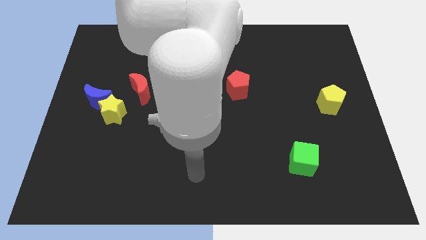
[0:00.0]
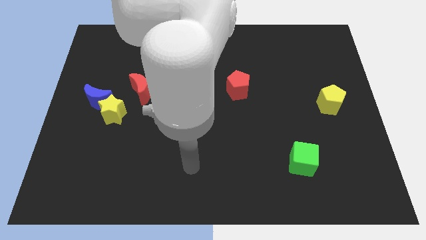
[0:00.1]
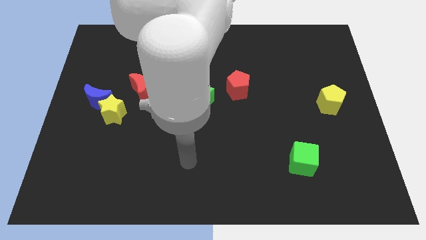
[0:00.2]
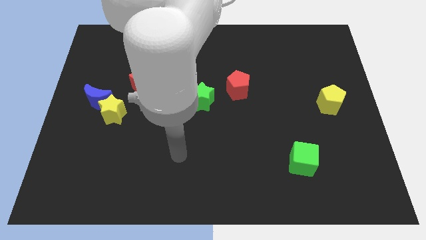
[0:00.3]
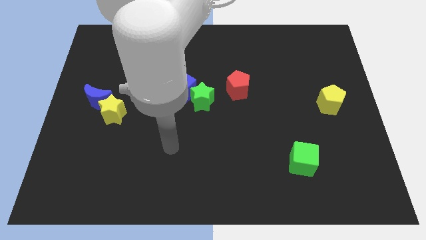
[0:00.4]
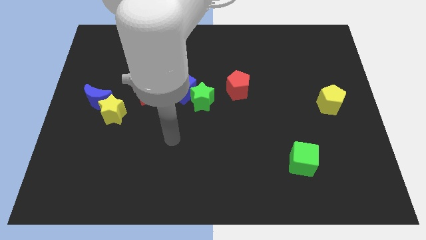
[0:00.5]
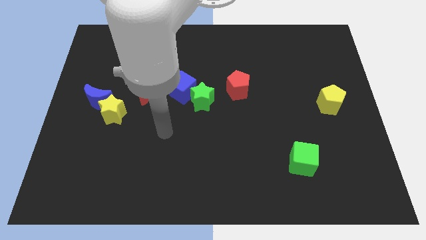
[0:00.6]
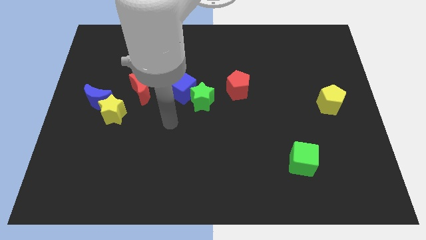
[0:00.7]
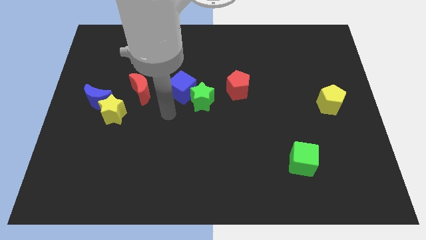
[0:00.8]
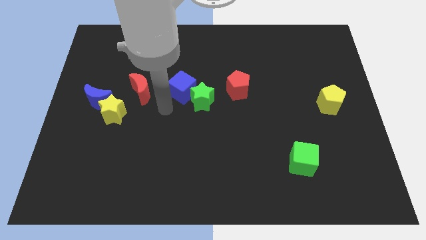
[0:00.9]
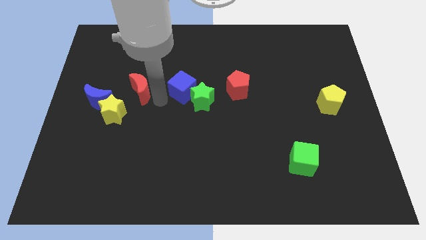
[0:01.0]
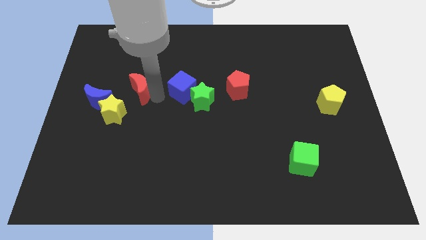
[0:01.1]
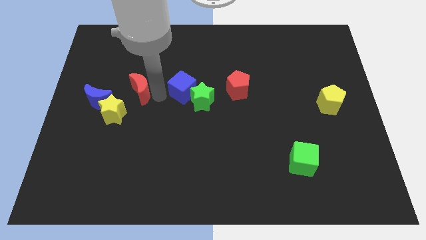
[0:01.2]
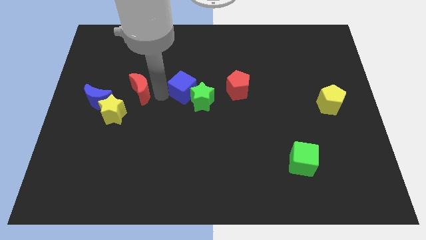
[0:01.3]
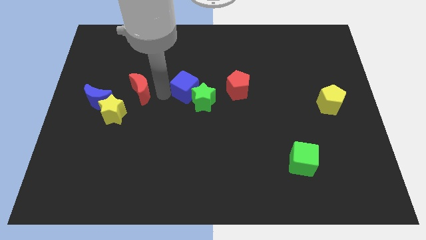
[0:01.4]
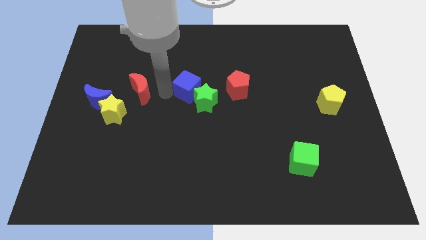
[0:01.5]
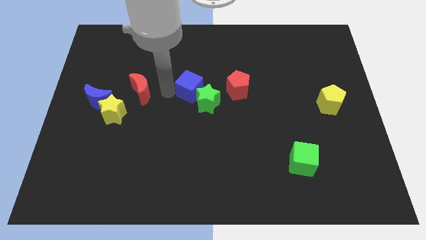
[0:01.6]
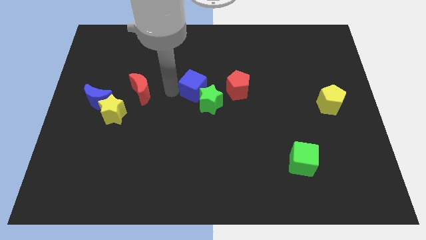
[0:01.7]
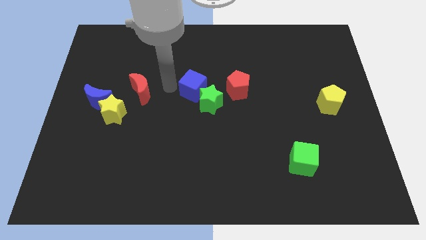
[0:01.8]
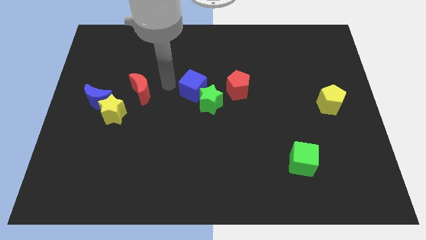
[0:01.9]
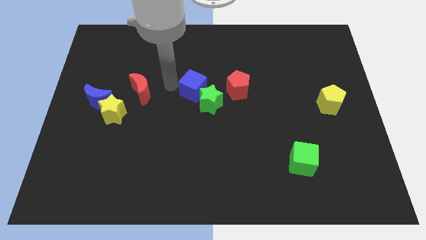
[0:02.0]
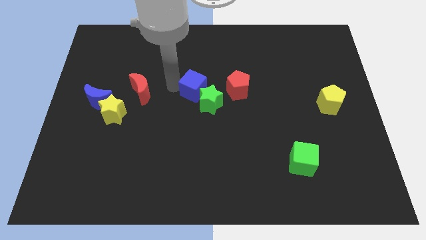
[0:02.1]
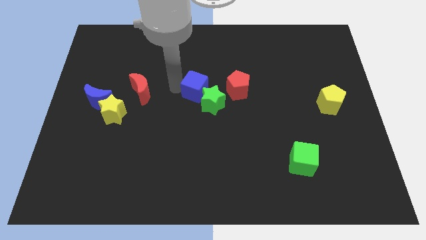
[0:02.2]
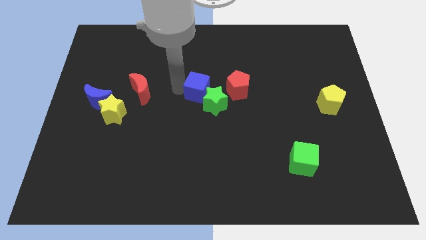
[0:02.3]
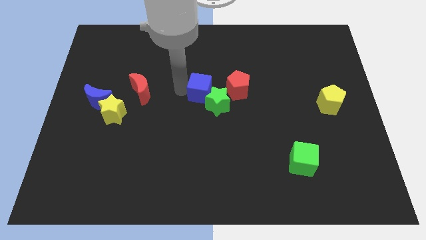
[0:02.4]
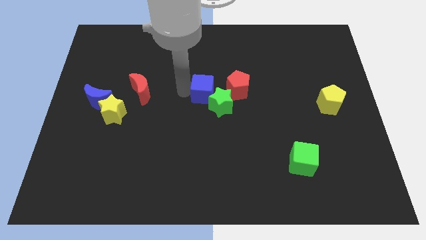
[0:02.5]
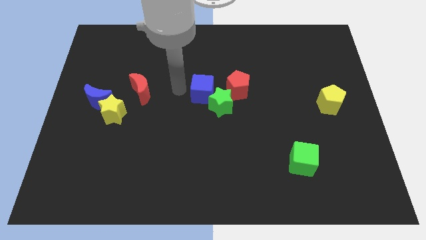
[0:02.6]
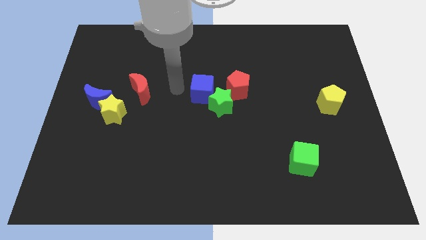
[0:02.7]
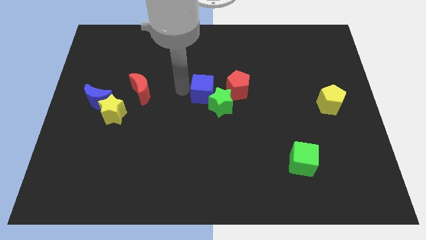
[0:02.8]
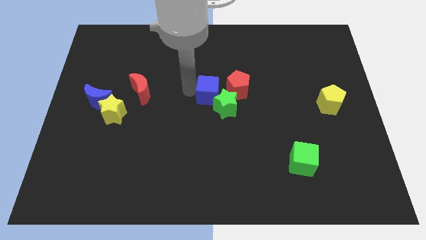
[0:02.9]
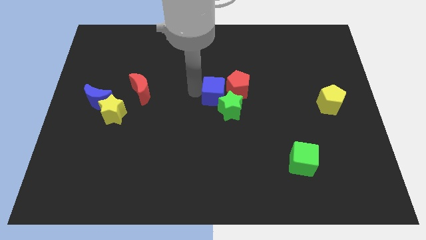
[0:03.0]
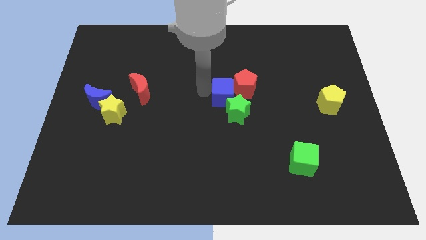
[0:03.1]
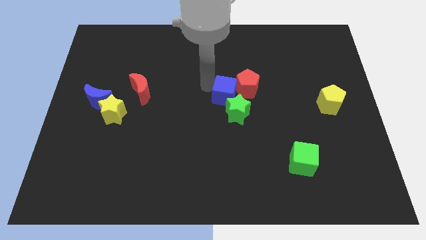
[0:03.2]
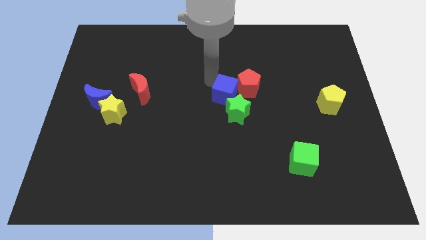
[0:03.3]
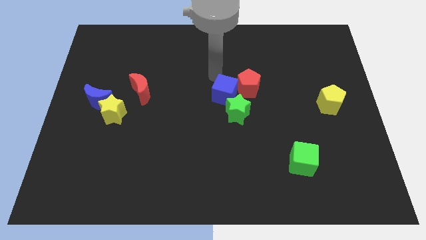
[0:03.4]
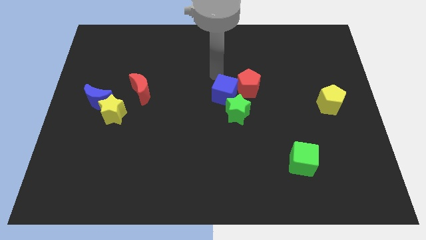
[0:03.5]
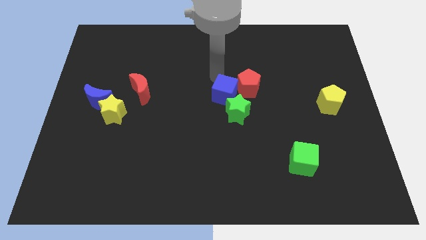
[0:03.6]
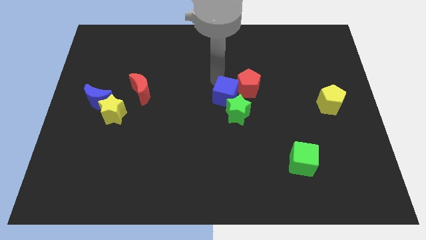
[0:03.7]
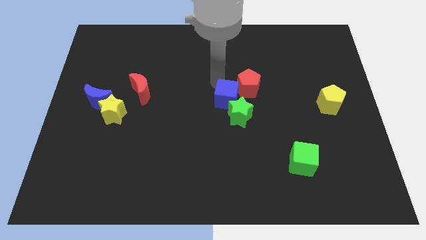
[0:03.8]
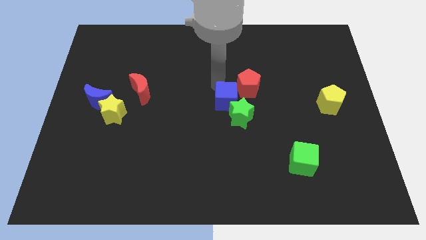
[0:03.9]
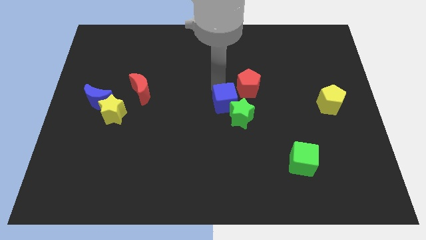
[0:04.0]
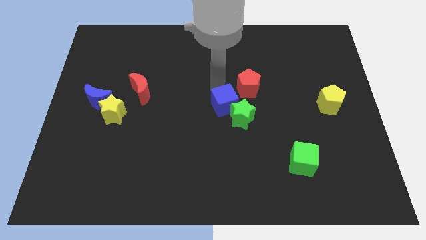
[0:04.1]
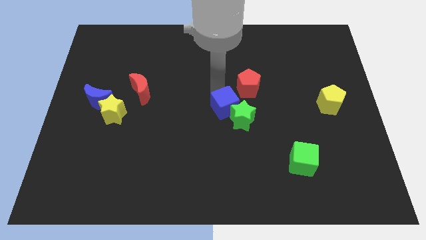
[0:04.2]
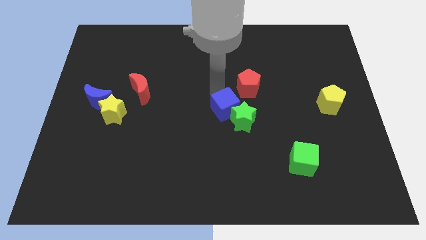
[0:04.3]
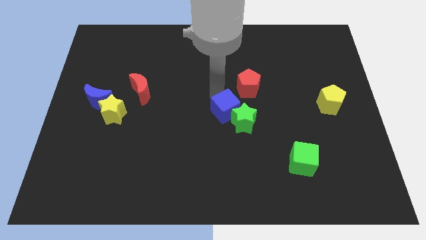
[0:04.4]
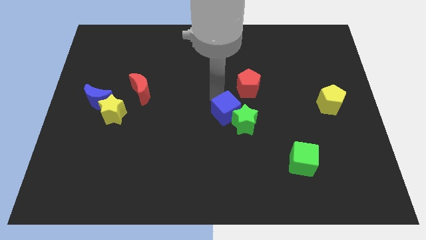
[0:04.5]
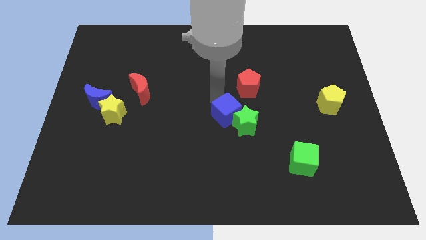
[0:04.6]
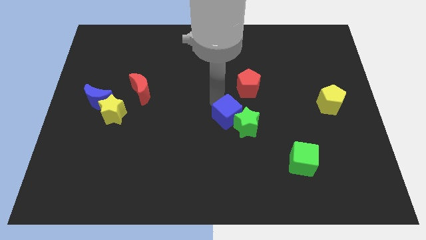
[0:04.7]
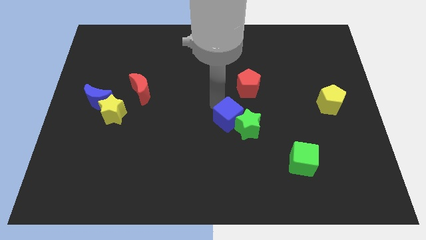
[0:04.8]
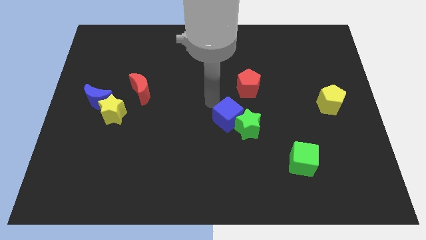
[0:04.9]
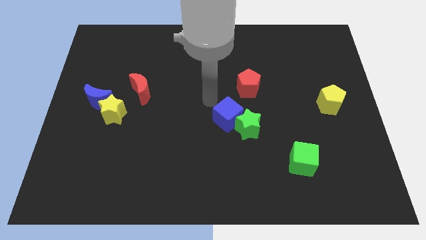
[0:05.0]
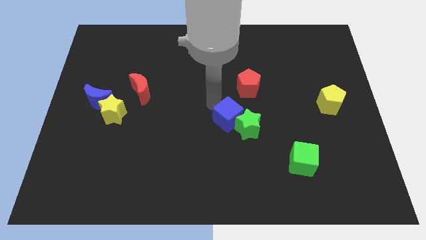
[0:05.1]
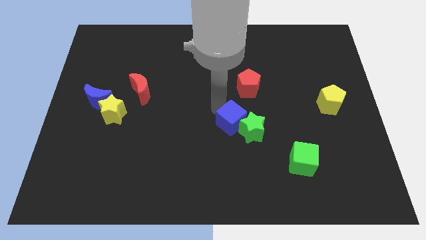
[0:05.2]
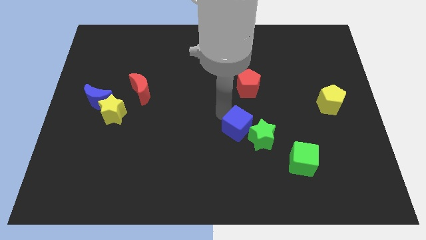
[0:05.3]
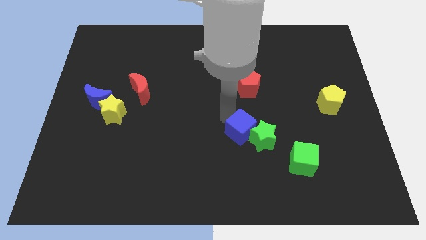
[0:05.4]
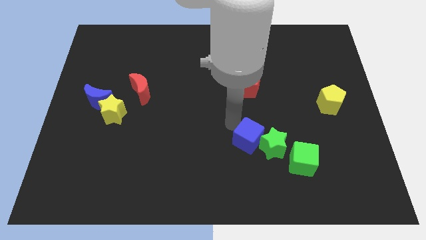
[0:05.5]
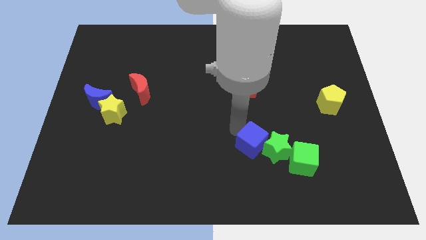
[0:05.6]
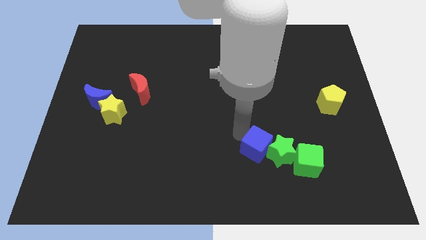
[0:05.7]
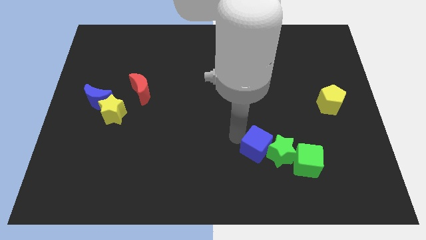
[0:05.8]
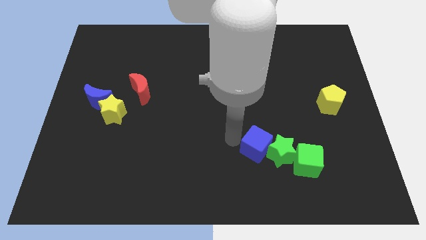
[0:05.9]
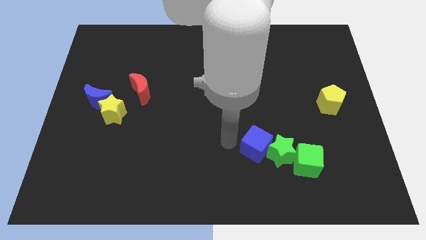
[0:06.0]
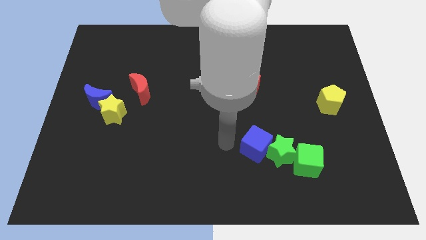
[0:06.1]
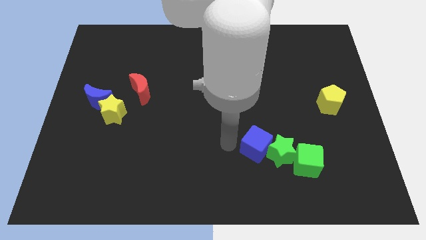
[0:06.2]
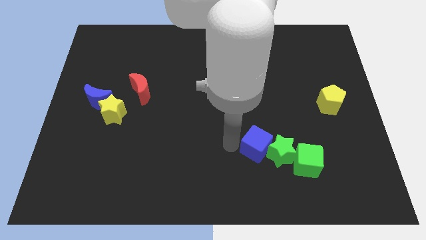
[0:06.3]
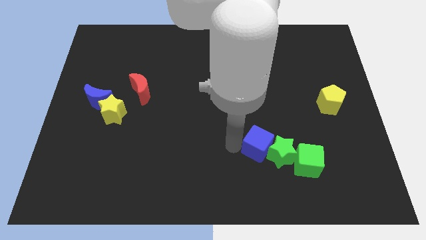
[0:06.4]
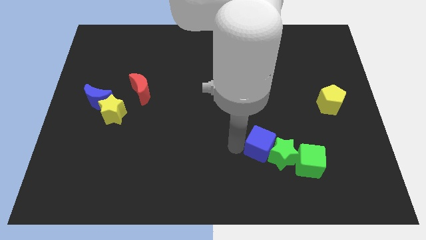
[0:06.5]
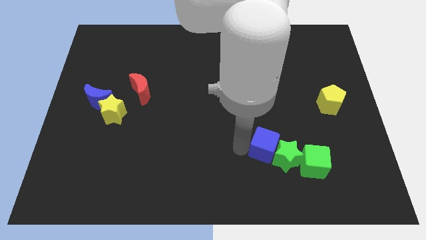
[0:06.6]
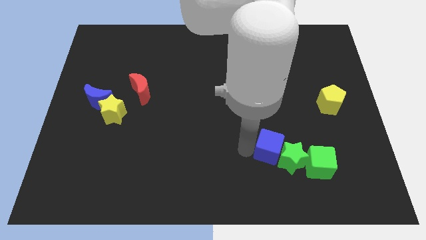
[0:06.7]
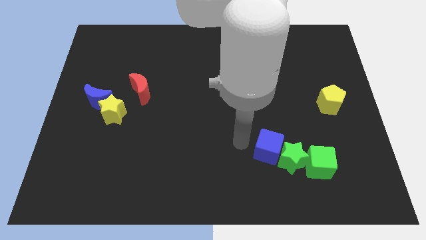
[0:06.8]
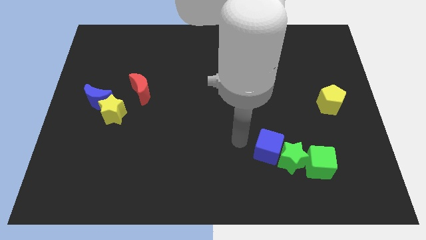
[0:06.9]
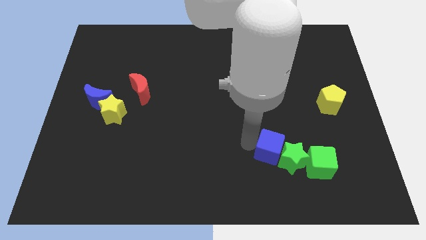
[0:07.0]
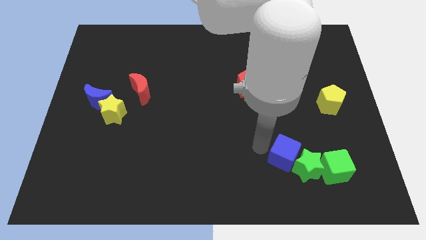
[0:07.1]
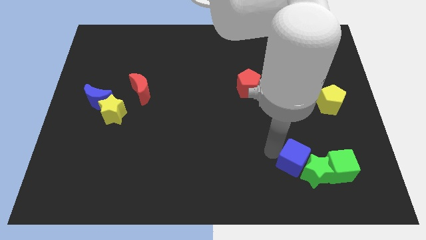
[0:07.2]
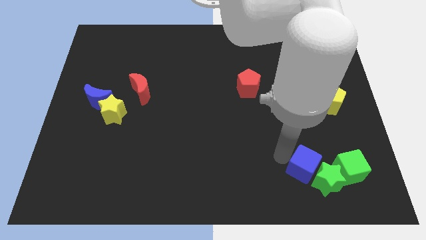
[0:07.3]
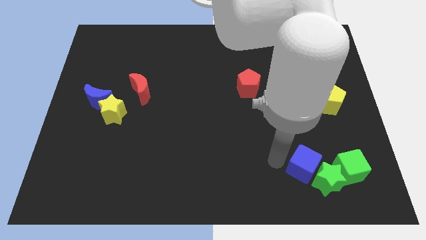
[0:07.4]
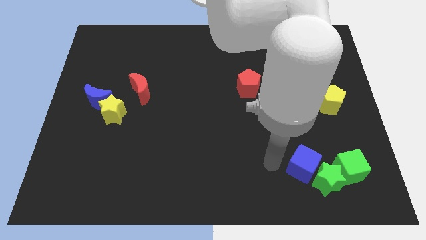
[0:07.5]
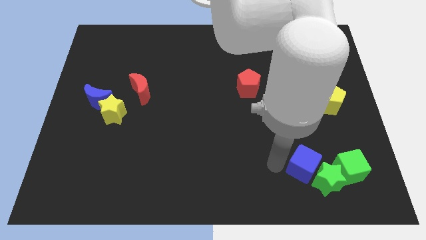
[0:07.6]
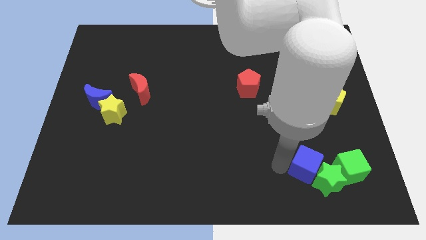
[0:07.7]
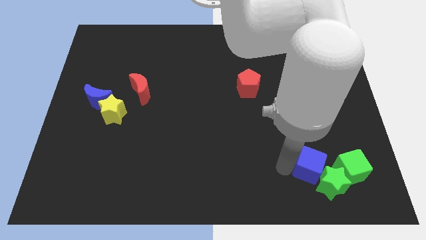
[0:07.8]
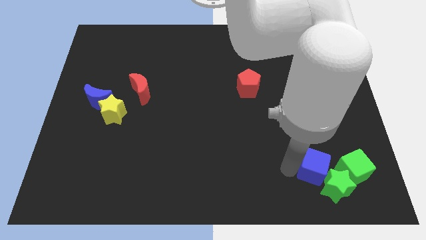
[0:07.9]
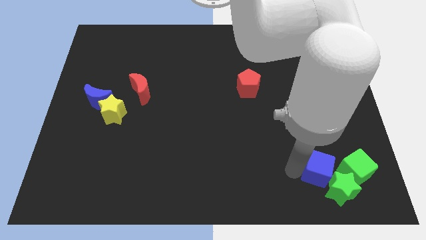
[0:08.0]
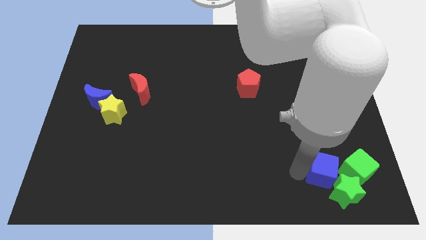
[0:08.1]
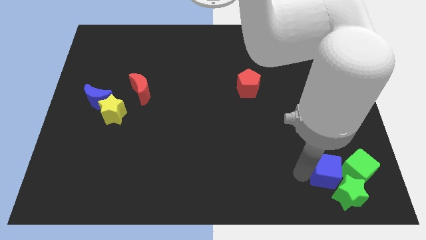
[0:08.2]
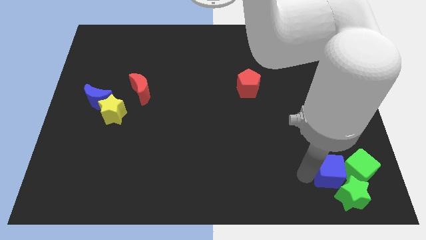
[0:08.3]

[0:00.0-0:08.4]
push the blue cube towards the green cube
